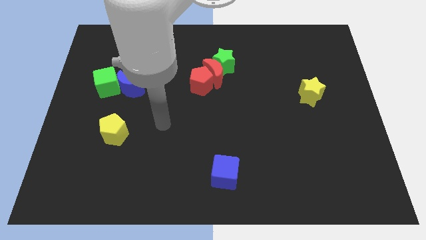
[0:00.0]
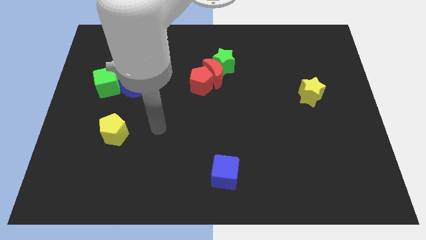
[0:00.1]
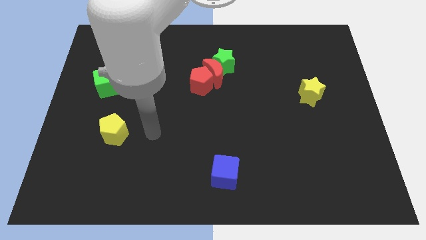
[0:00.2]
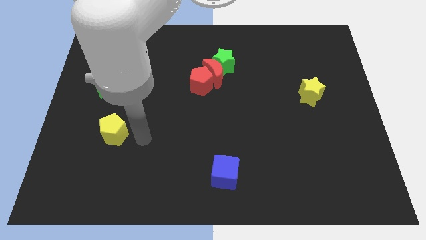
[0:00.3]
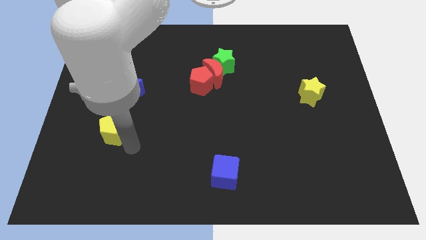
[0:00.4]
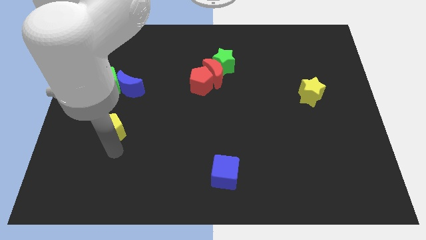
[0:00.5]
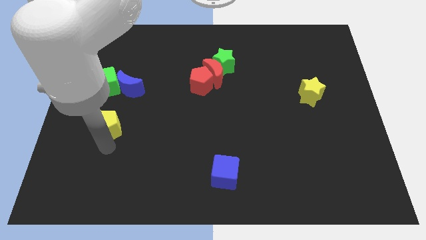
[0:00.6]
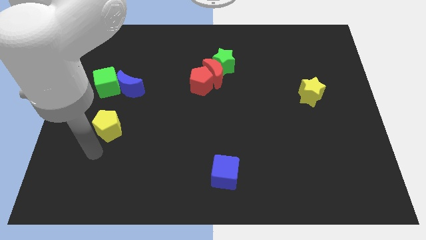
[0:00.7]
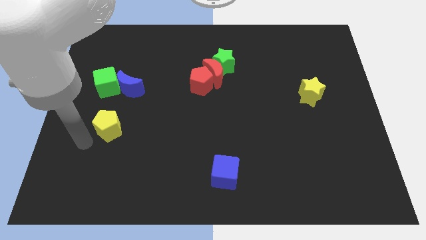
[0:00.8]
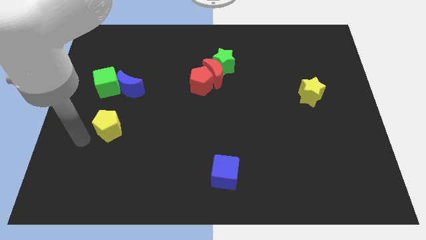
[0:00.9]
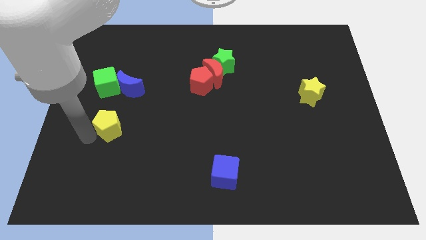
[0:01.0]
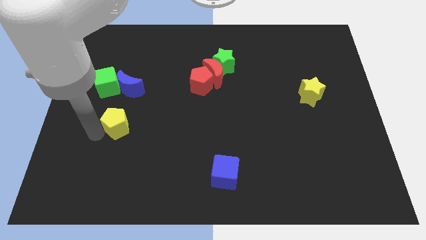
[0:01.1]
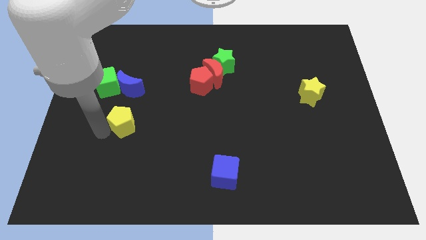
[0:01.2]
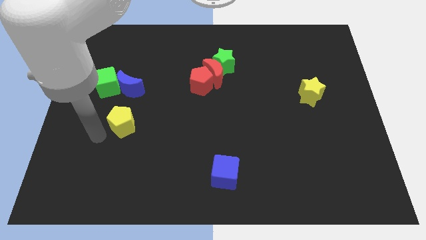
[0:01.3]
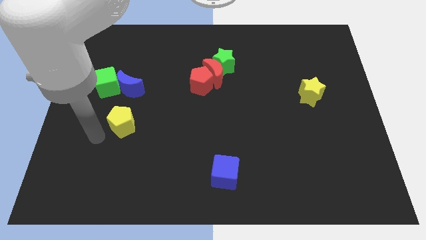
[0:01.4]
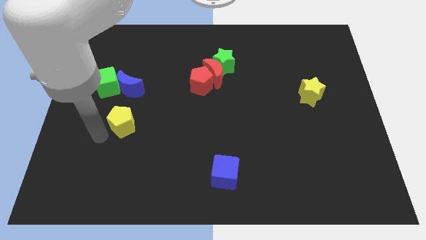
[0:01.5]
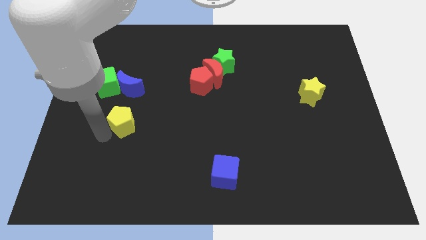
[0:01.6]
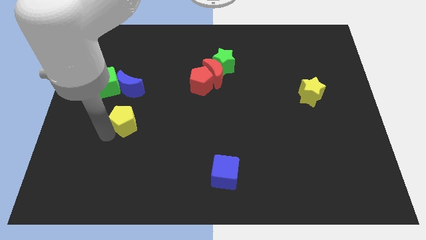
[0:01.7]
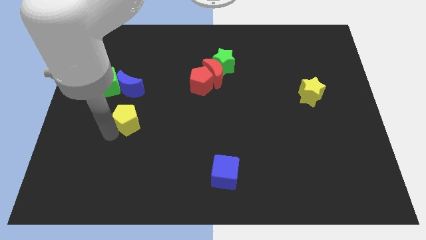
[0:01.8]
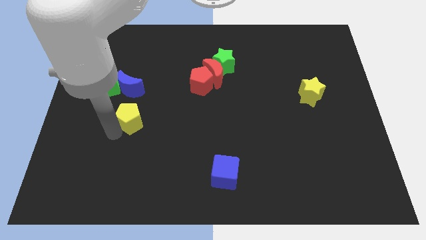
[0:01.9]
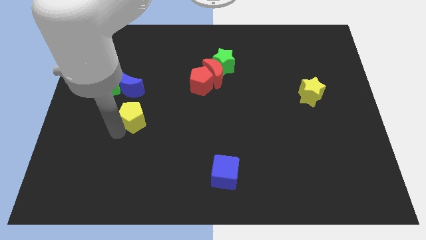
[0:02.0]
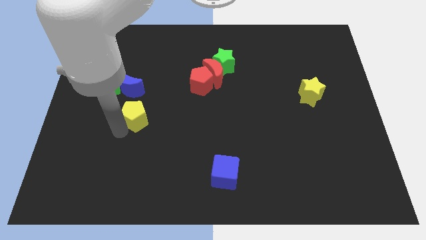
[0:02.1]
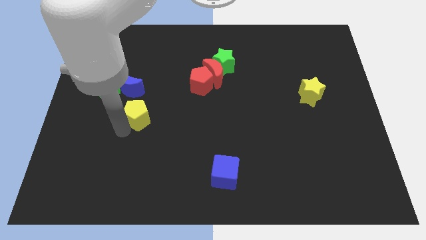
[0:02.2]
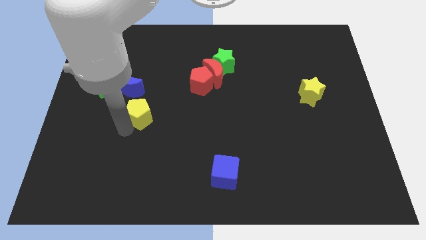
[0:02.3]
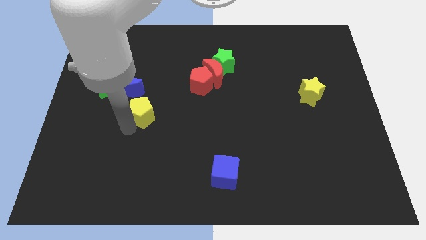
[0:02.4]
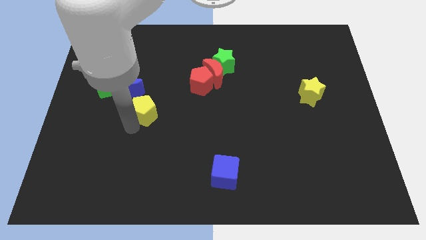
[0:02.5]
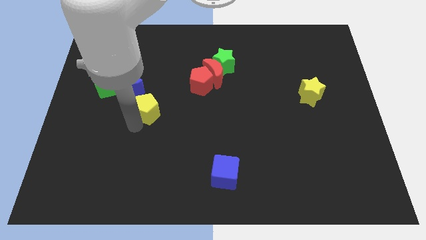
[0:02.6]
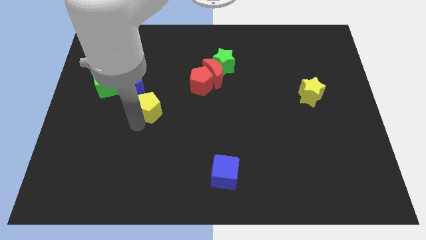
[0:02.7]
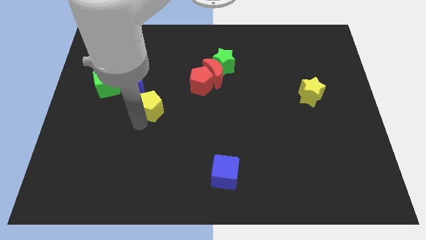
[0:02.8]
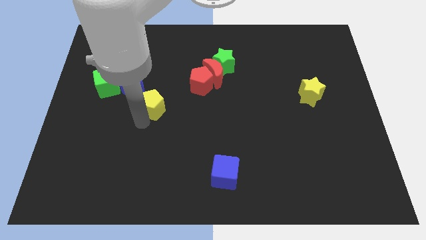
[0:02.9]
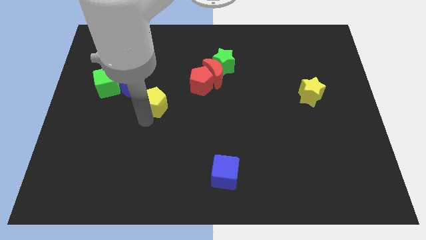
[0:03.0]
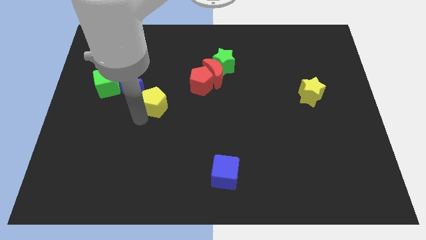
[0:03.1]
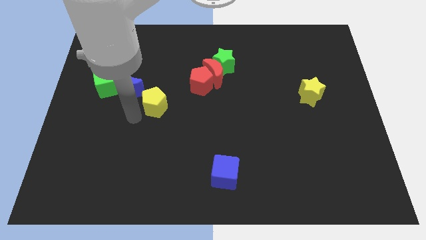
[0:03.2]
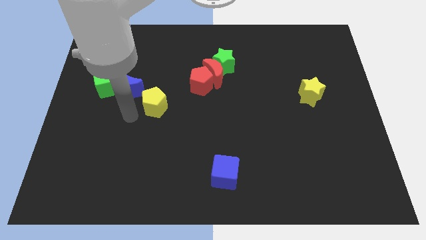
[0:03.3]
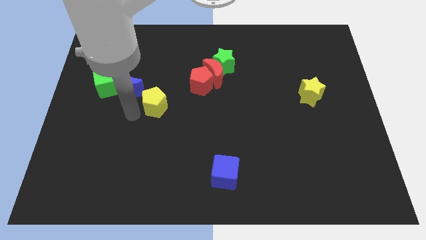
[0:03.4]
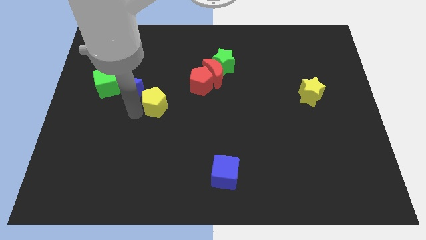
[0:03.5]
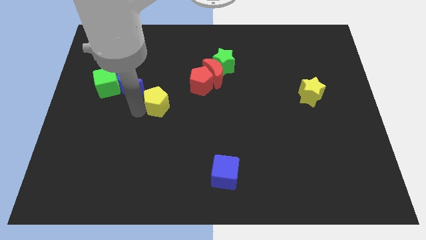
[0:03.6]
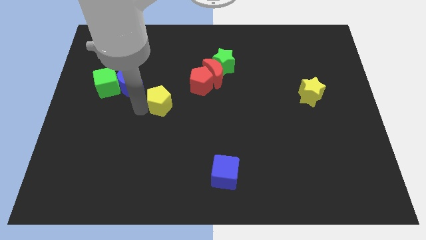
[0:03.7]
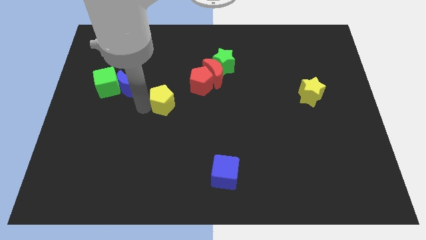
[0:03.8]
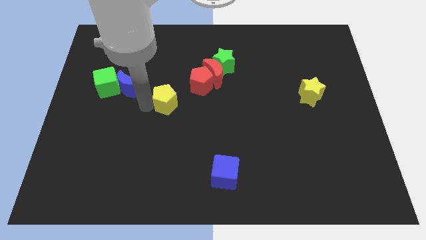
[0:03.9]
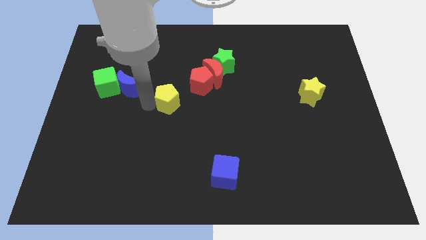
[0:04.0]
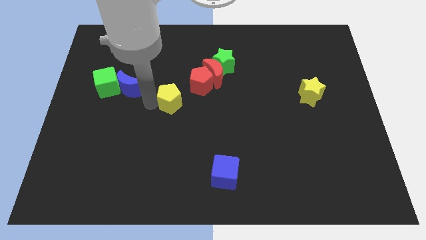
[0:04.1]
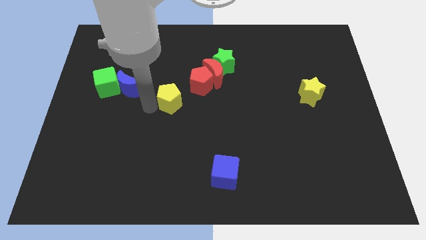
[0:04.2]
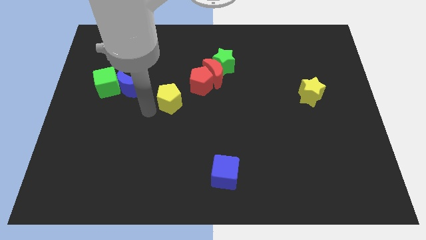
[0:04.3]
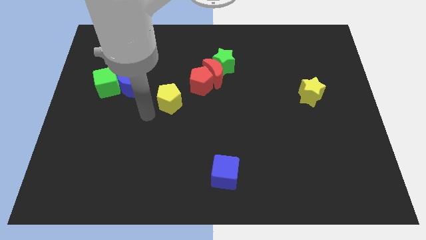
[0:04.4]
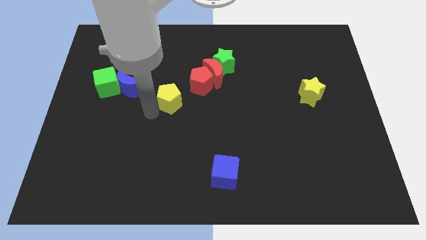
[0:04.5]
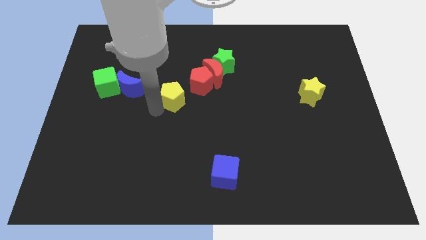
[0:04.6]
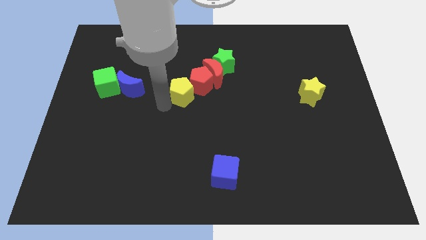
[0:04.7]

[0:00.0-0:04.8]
slide the yellow pentagon to the red pentagon

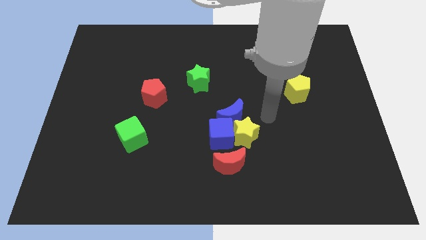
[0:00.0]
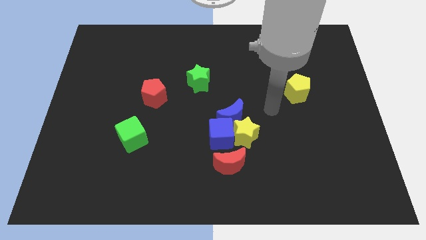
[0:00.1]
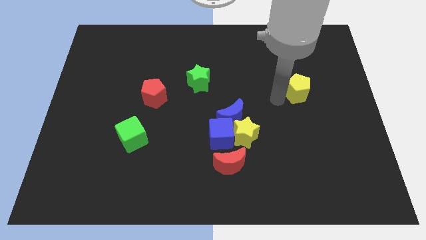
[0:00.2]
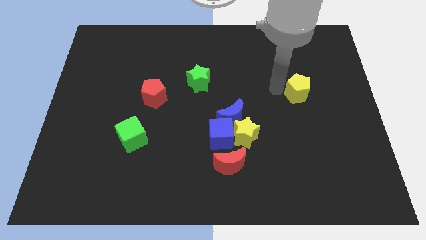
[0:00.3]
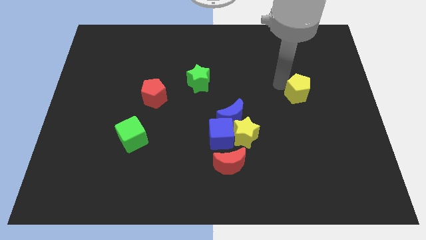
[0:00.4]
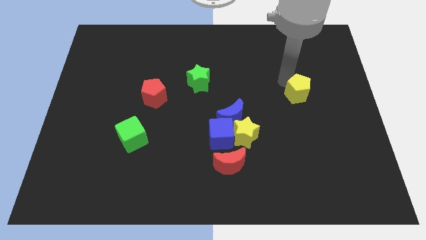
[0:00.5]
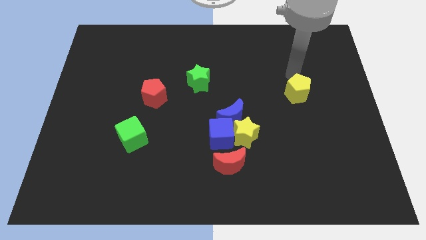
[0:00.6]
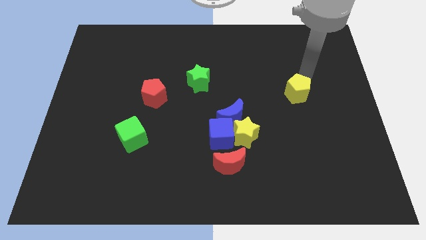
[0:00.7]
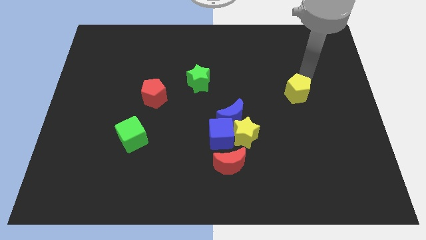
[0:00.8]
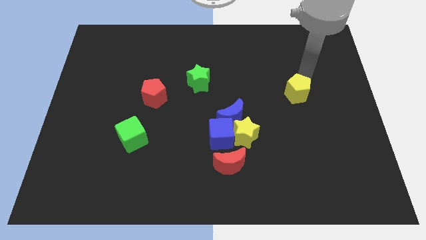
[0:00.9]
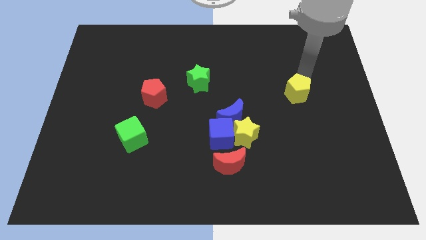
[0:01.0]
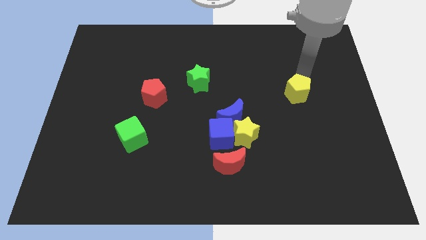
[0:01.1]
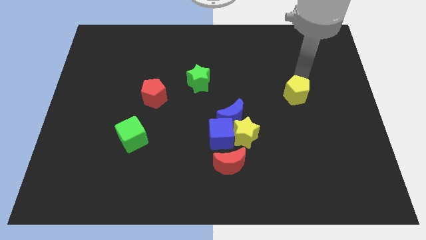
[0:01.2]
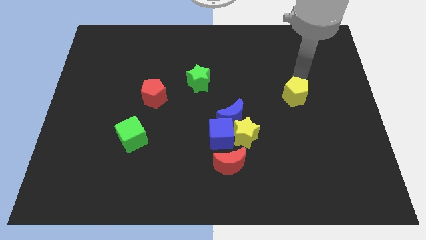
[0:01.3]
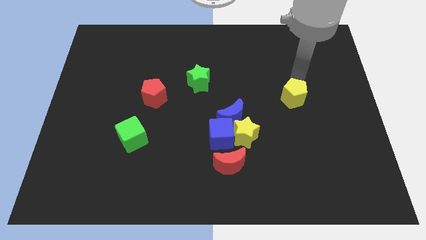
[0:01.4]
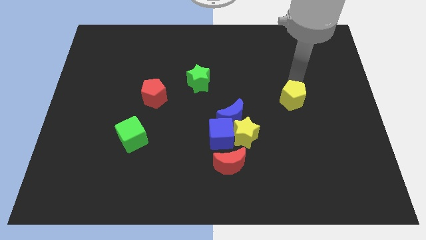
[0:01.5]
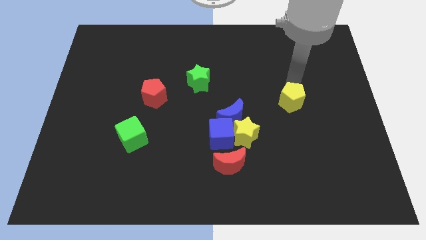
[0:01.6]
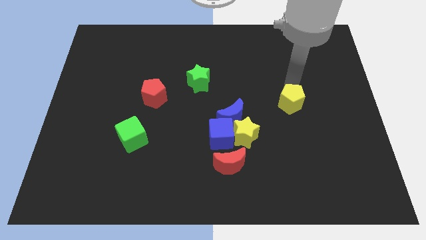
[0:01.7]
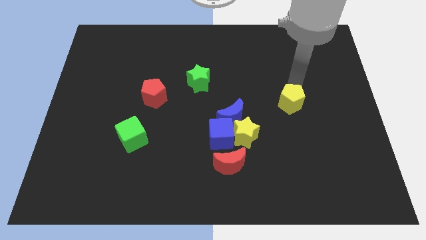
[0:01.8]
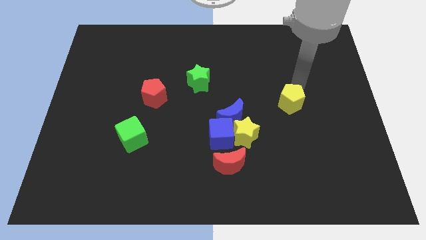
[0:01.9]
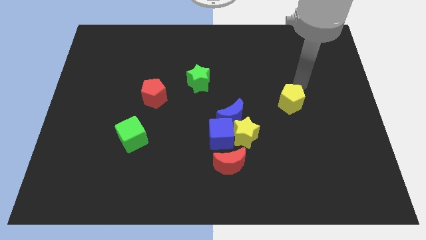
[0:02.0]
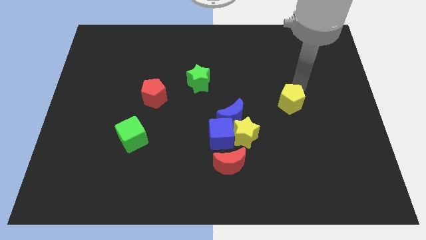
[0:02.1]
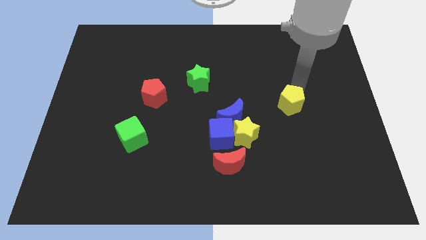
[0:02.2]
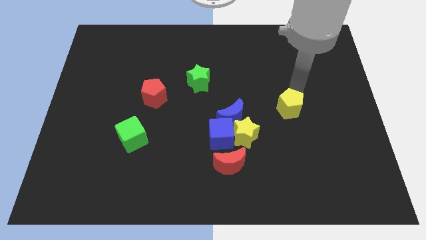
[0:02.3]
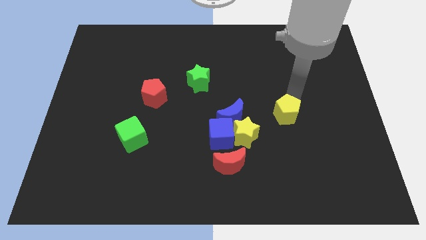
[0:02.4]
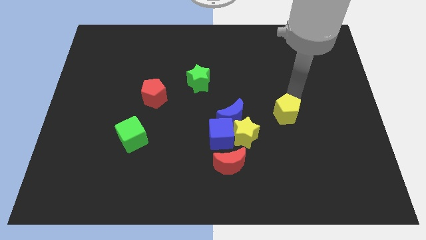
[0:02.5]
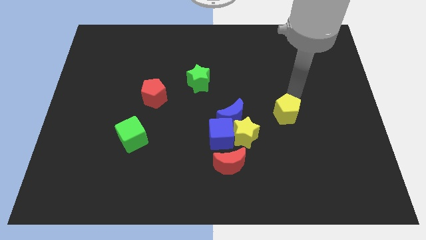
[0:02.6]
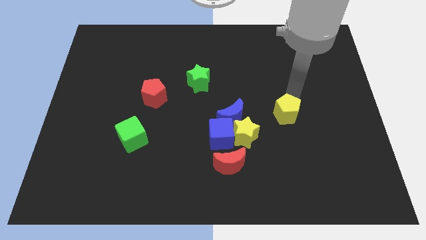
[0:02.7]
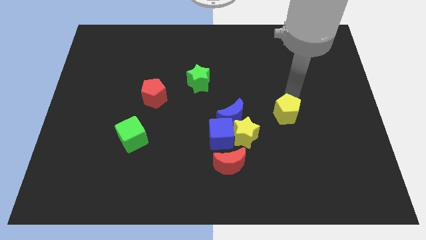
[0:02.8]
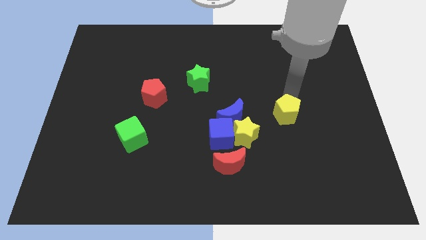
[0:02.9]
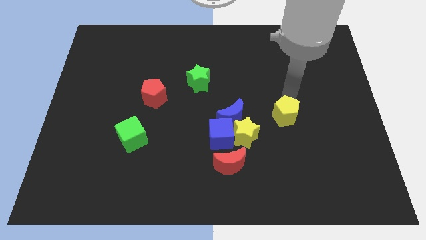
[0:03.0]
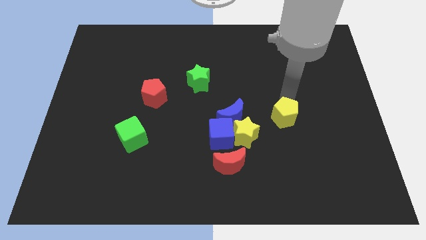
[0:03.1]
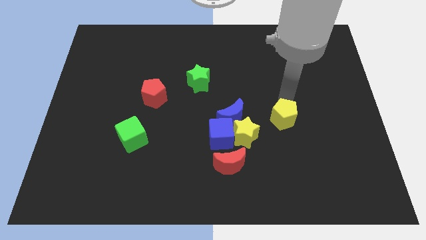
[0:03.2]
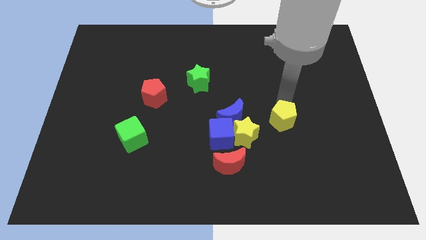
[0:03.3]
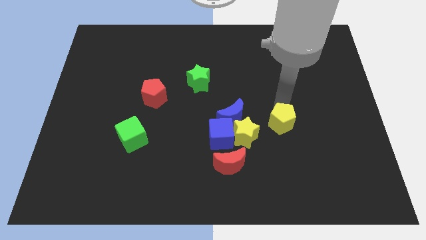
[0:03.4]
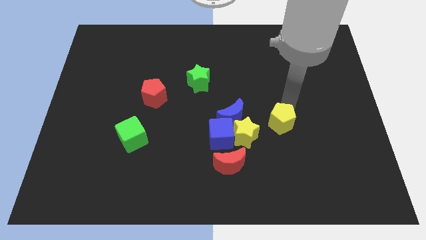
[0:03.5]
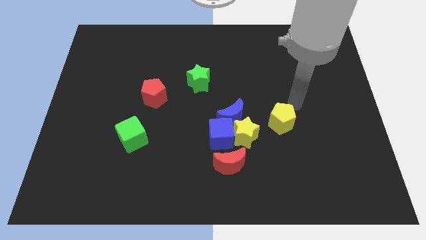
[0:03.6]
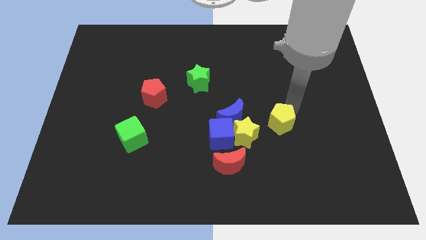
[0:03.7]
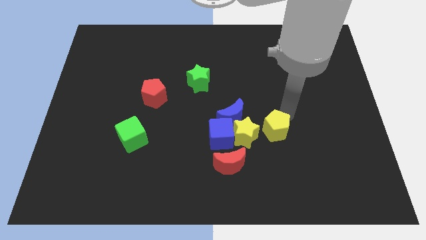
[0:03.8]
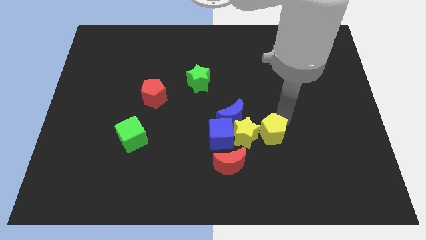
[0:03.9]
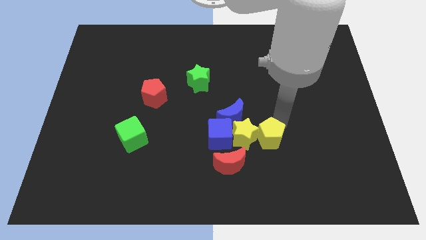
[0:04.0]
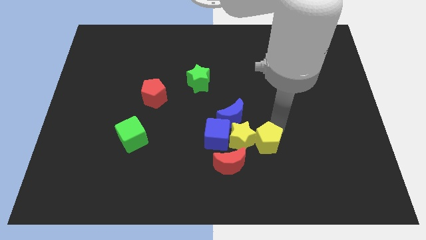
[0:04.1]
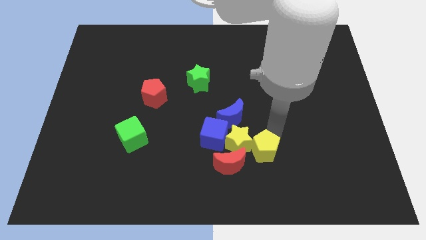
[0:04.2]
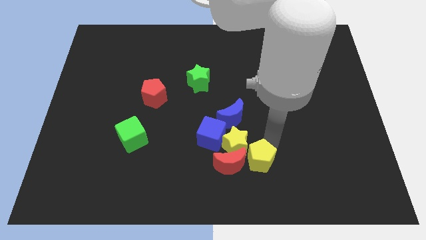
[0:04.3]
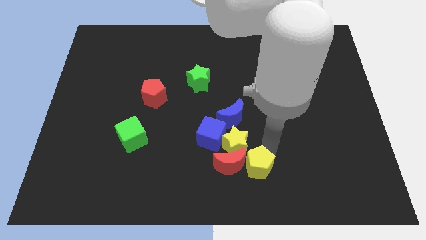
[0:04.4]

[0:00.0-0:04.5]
push the yellow pentagon next to the red moon
